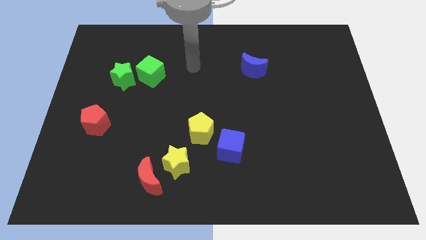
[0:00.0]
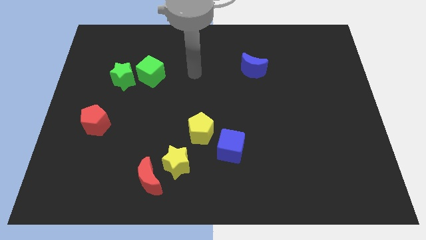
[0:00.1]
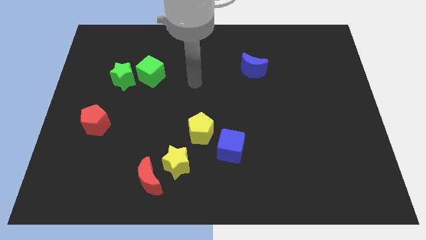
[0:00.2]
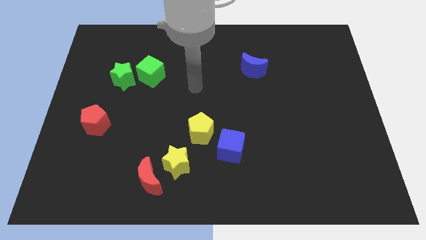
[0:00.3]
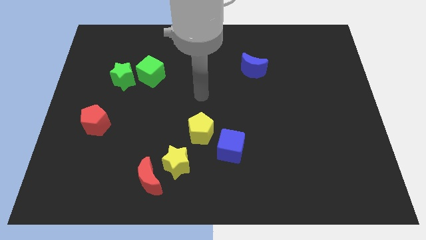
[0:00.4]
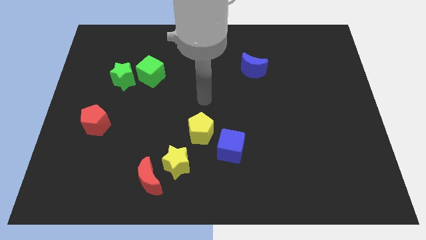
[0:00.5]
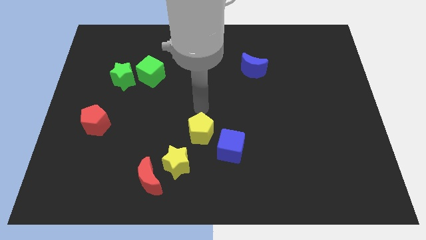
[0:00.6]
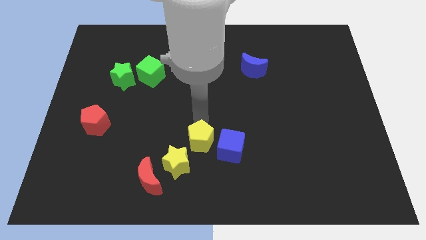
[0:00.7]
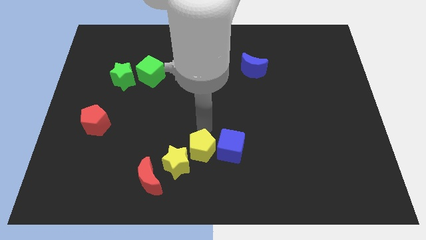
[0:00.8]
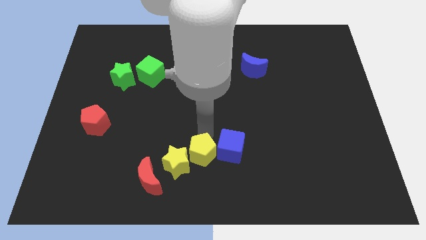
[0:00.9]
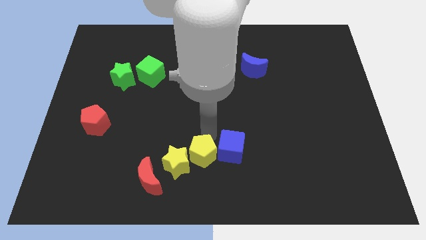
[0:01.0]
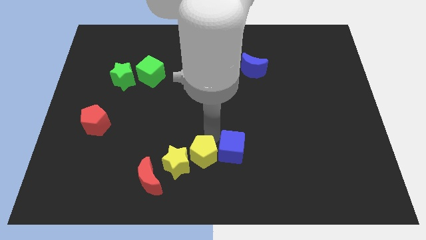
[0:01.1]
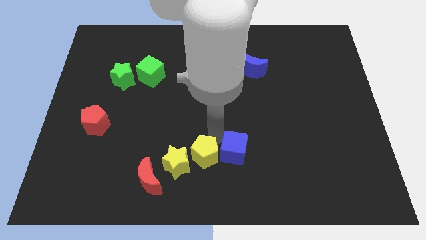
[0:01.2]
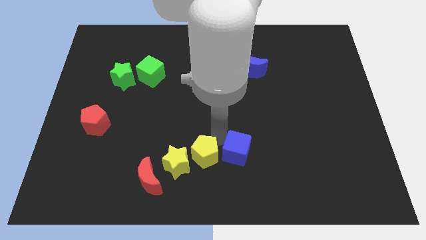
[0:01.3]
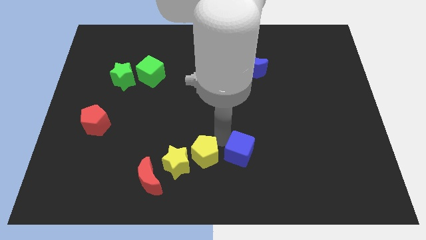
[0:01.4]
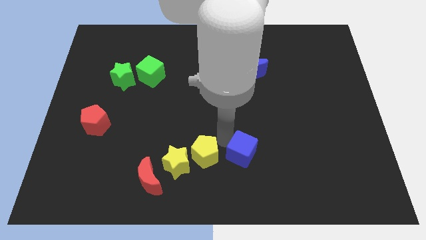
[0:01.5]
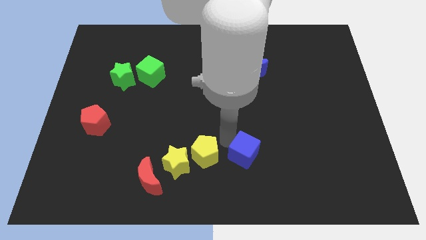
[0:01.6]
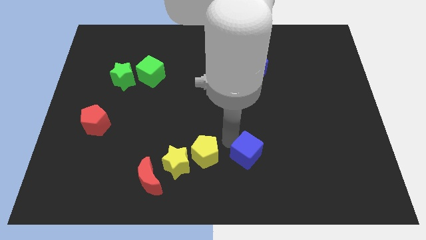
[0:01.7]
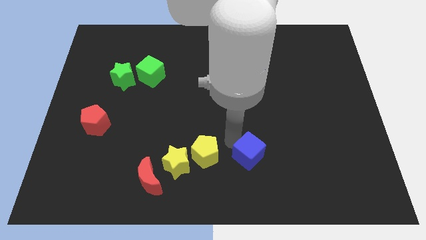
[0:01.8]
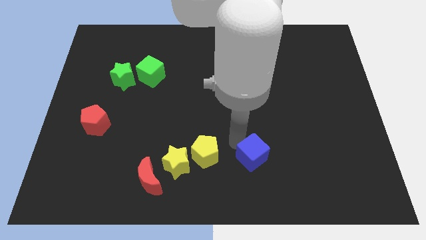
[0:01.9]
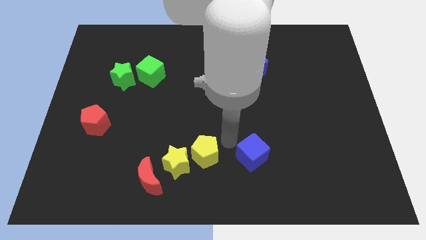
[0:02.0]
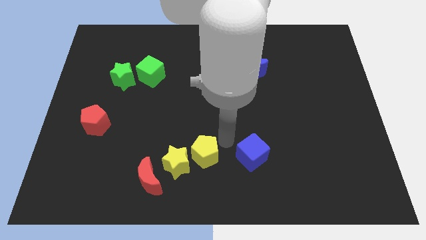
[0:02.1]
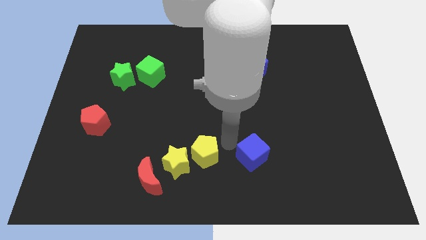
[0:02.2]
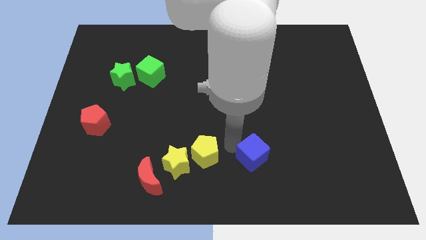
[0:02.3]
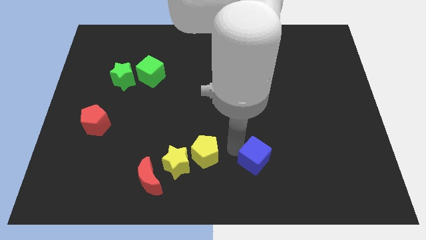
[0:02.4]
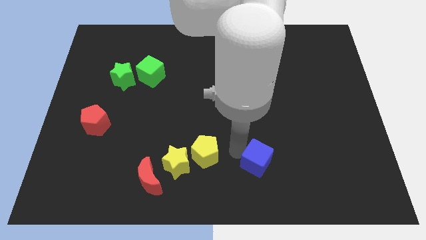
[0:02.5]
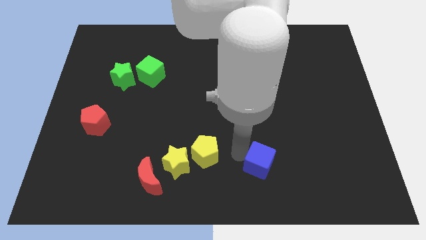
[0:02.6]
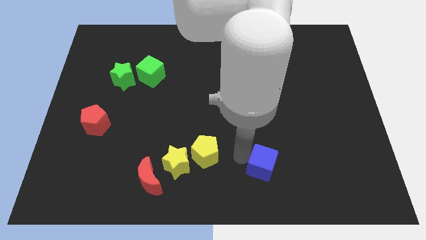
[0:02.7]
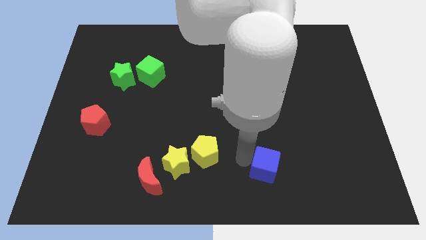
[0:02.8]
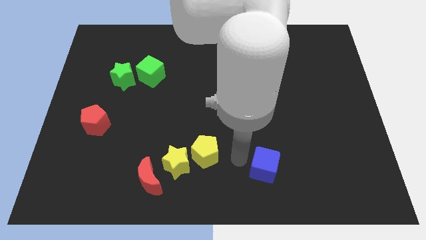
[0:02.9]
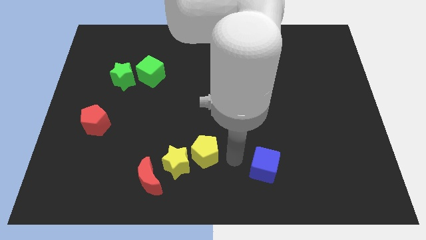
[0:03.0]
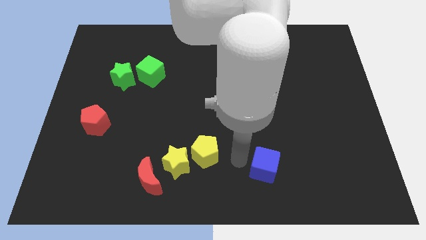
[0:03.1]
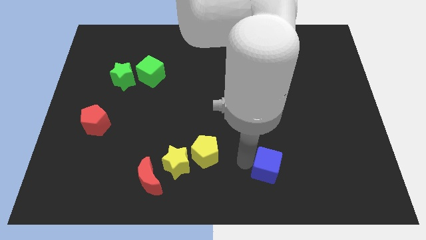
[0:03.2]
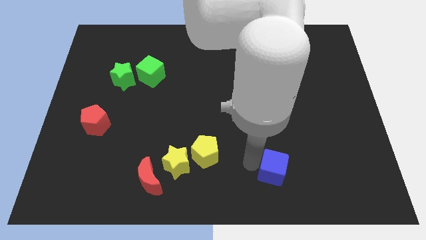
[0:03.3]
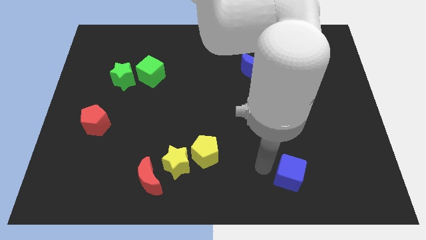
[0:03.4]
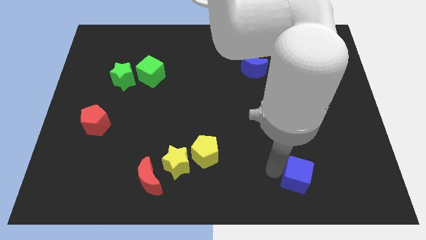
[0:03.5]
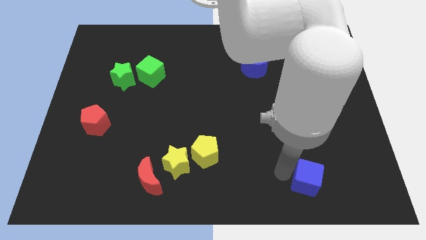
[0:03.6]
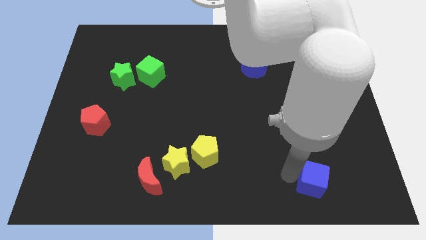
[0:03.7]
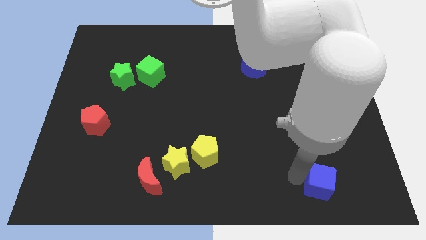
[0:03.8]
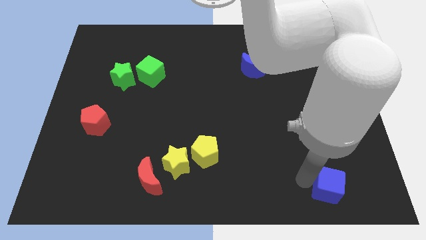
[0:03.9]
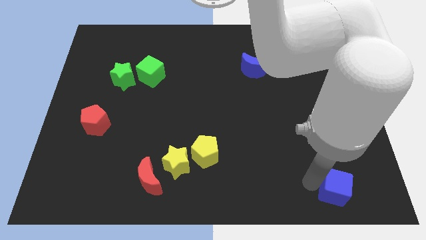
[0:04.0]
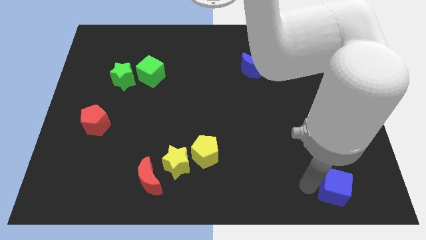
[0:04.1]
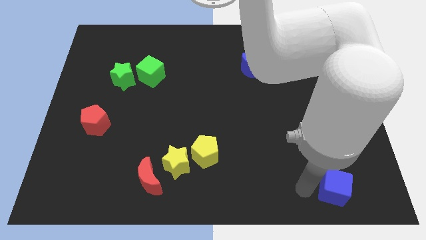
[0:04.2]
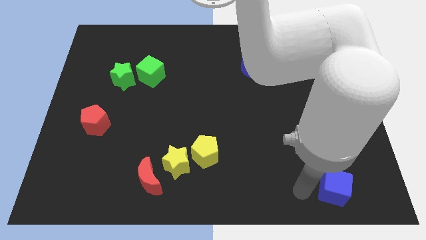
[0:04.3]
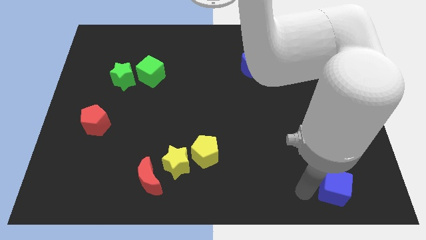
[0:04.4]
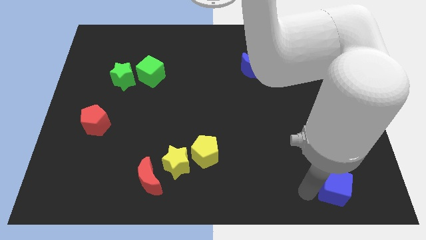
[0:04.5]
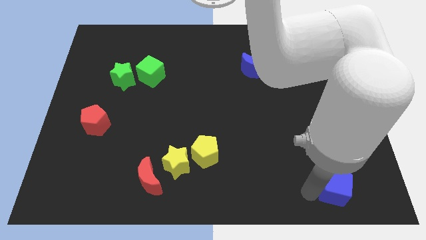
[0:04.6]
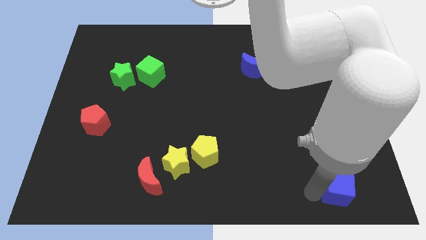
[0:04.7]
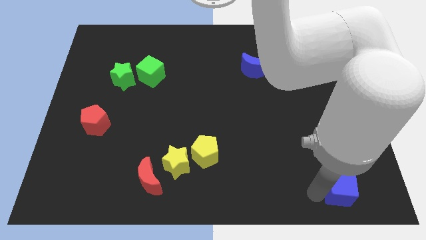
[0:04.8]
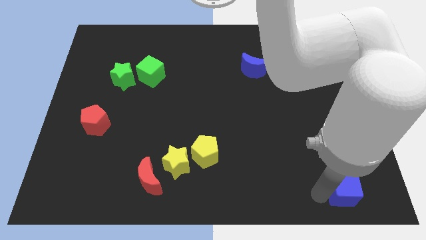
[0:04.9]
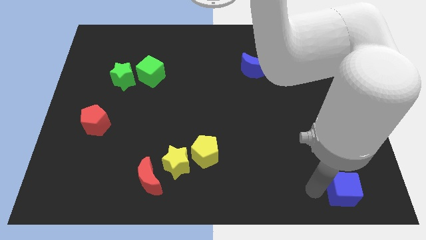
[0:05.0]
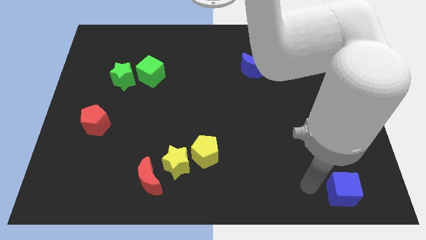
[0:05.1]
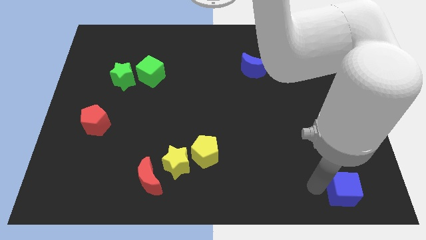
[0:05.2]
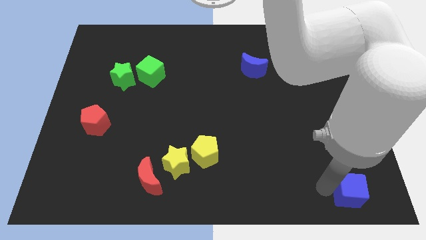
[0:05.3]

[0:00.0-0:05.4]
move the blue cube to the lower right corner
